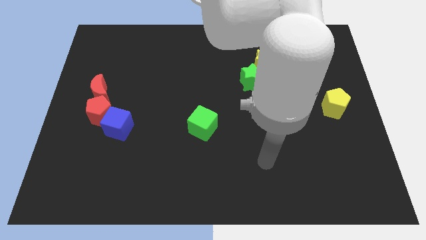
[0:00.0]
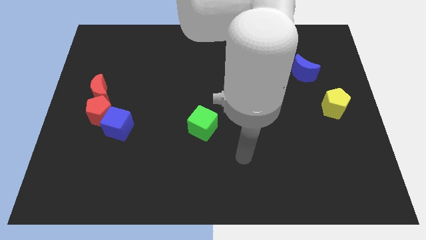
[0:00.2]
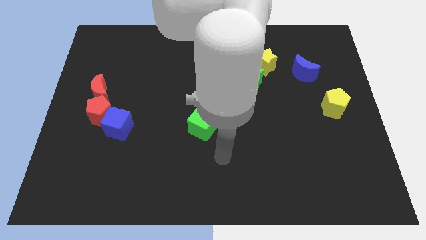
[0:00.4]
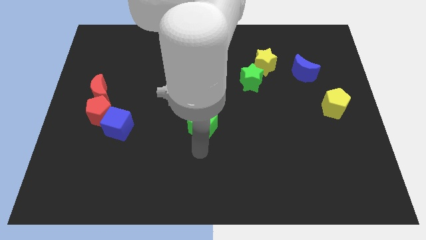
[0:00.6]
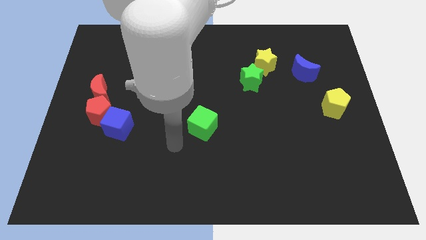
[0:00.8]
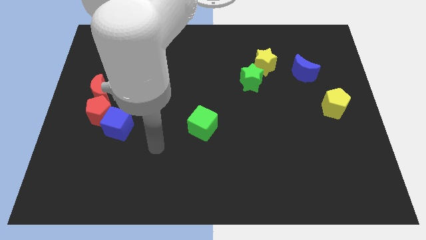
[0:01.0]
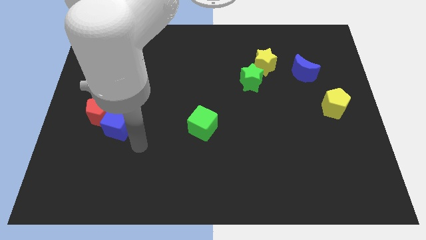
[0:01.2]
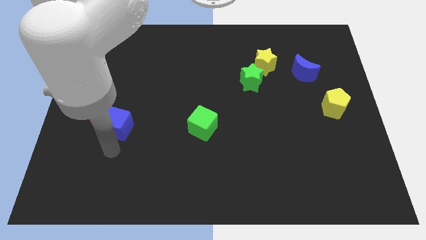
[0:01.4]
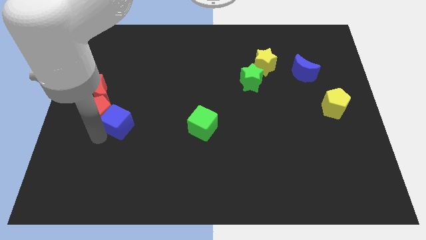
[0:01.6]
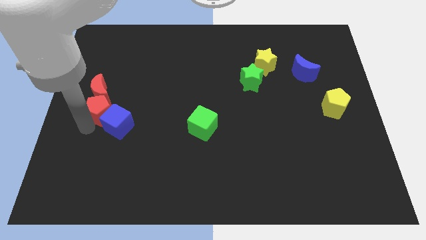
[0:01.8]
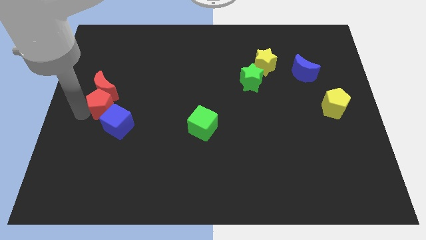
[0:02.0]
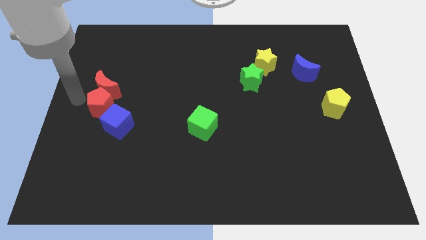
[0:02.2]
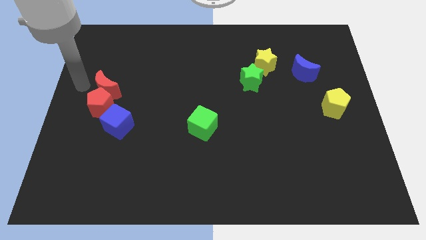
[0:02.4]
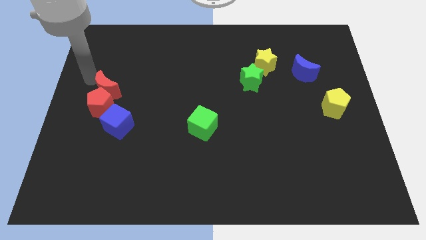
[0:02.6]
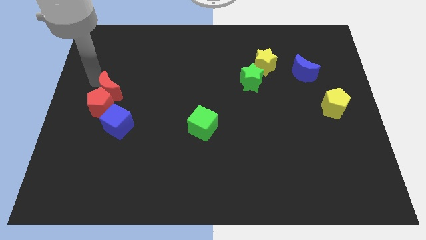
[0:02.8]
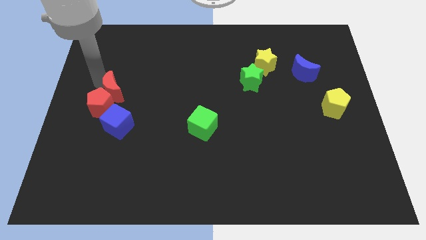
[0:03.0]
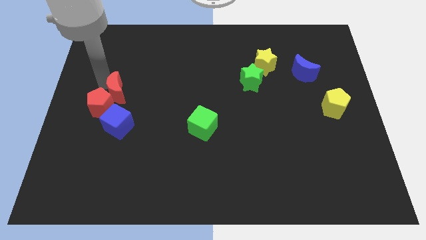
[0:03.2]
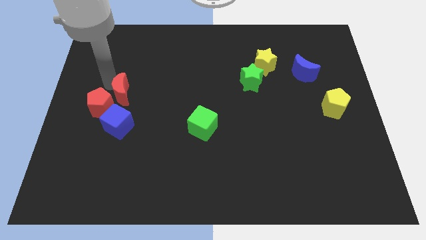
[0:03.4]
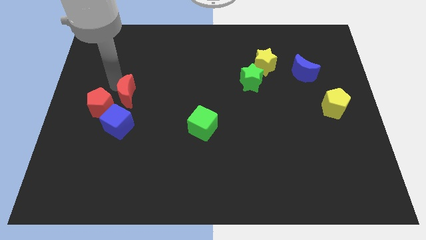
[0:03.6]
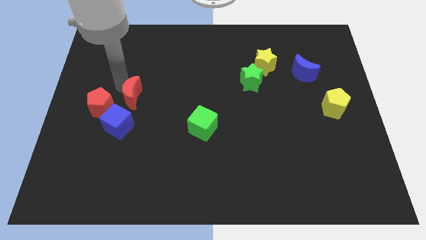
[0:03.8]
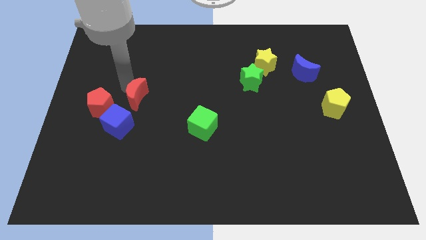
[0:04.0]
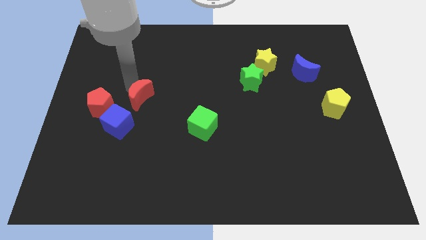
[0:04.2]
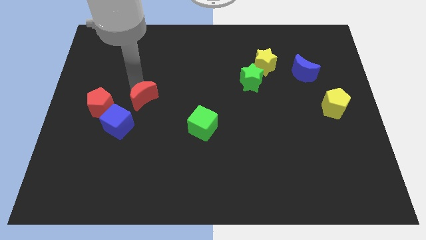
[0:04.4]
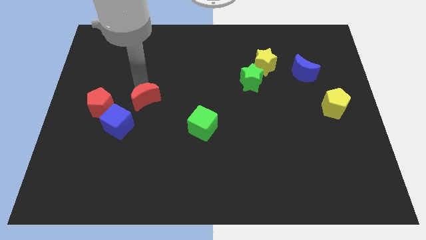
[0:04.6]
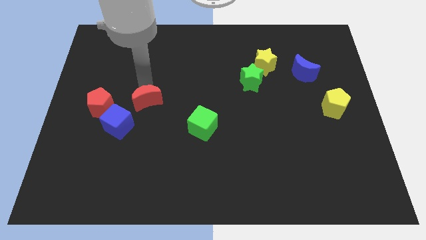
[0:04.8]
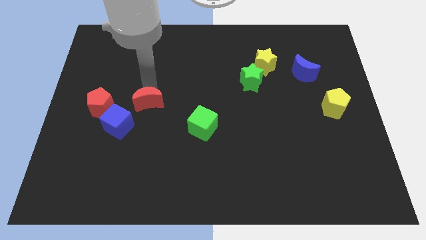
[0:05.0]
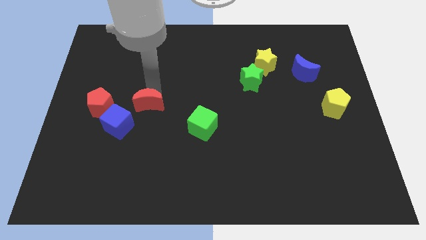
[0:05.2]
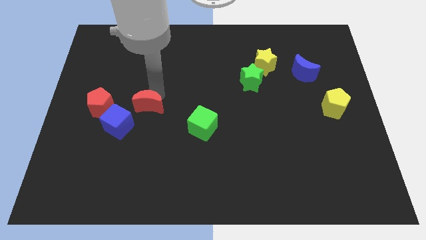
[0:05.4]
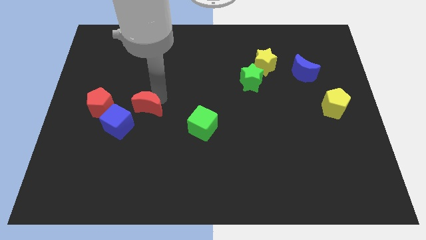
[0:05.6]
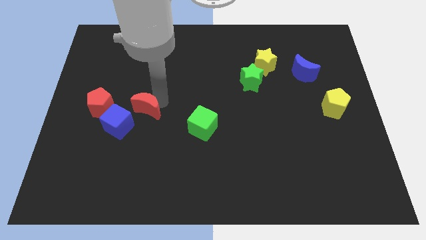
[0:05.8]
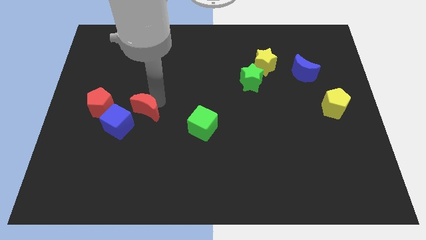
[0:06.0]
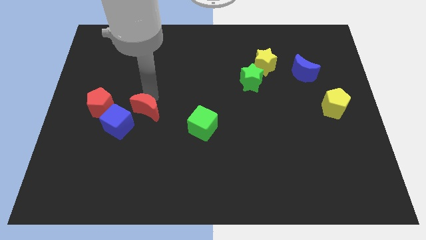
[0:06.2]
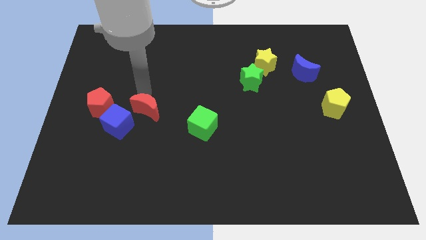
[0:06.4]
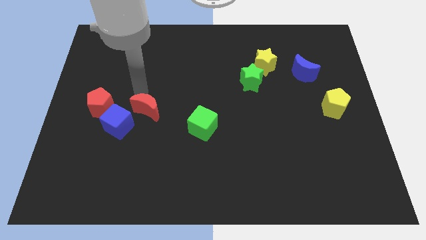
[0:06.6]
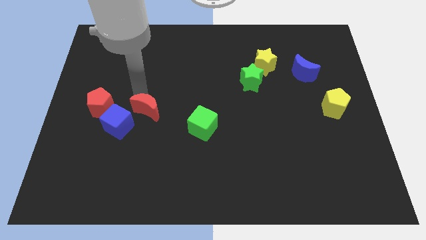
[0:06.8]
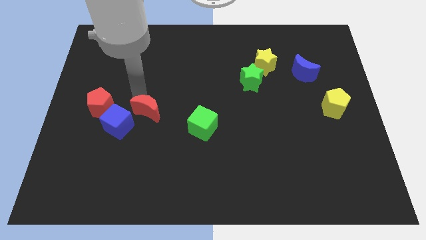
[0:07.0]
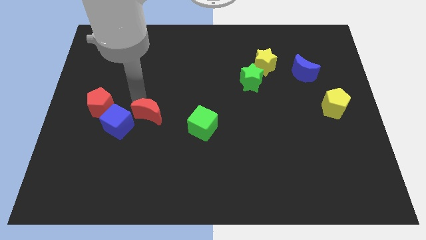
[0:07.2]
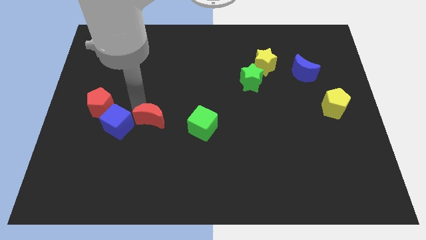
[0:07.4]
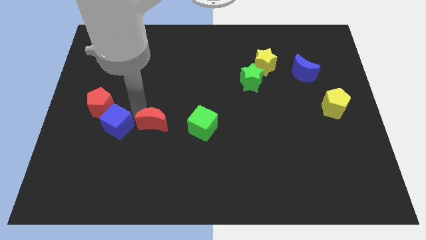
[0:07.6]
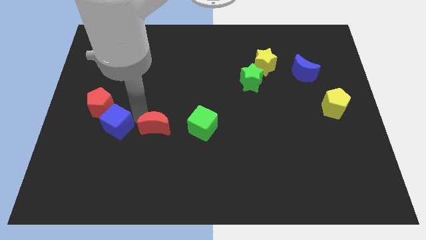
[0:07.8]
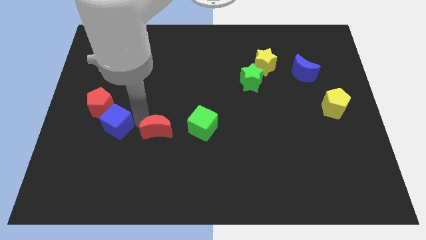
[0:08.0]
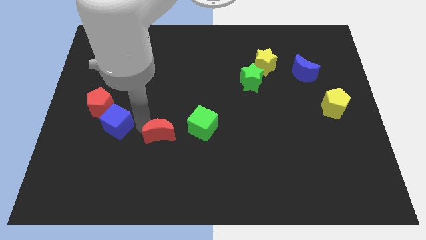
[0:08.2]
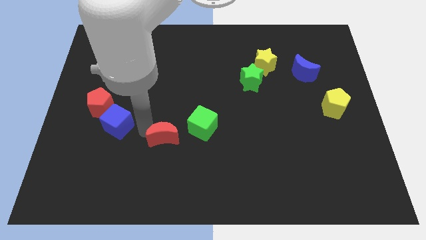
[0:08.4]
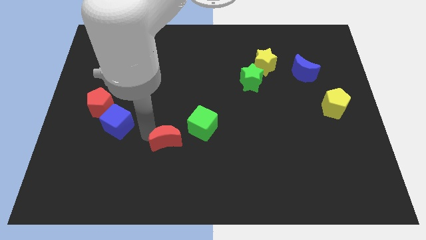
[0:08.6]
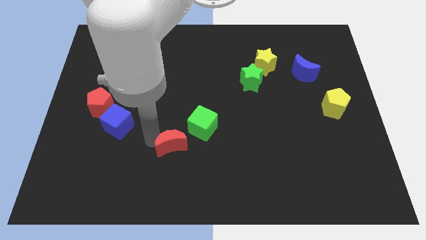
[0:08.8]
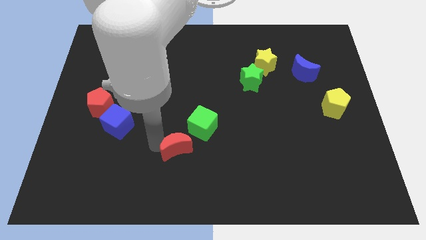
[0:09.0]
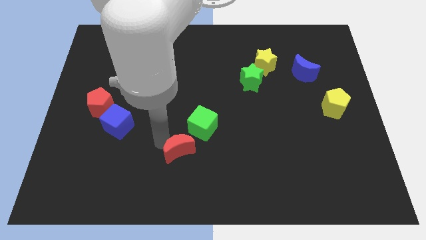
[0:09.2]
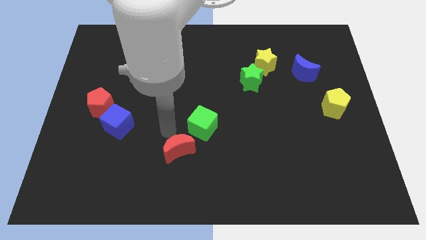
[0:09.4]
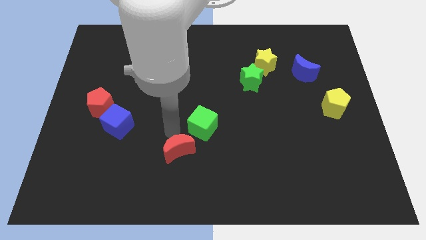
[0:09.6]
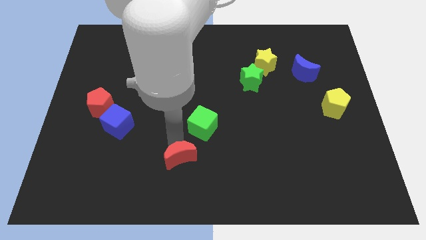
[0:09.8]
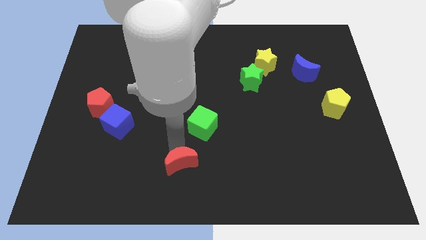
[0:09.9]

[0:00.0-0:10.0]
slide the red moon to the bottom

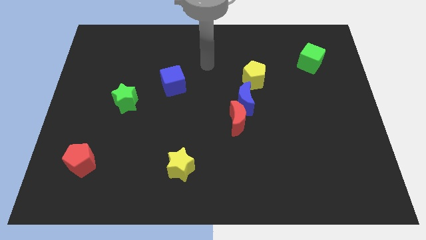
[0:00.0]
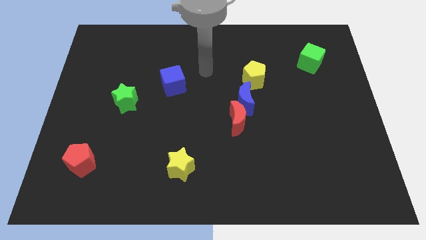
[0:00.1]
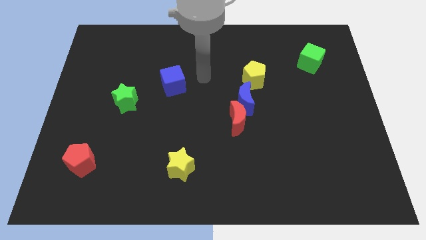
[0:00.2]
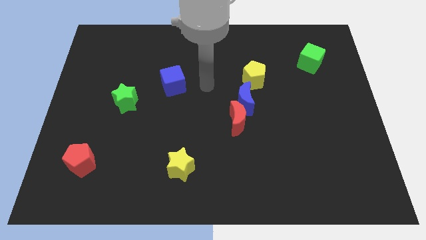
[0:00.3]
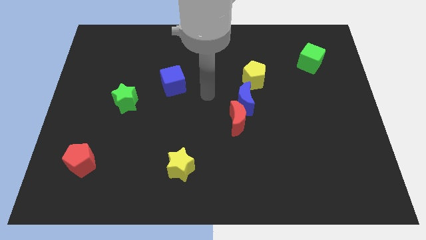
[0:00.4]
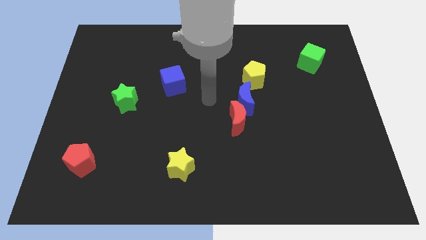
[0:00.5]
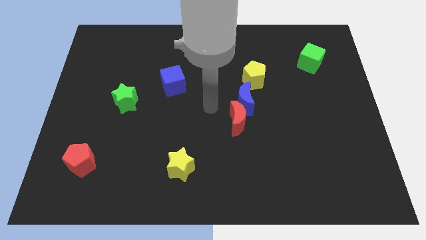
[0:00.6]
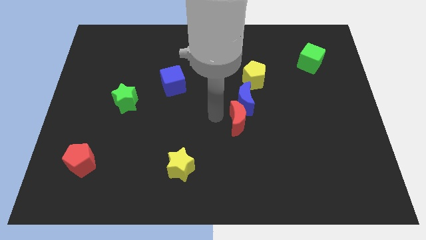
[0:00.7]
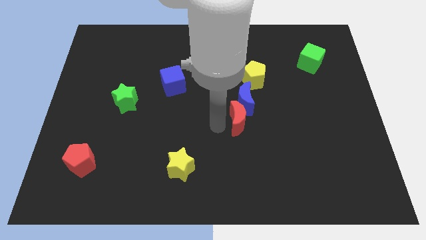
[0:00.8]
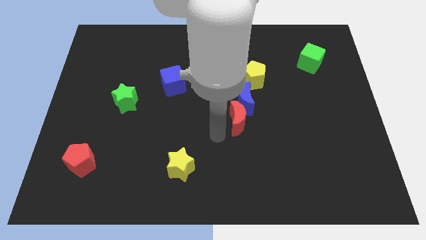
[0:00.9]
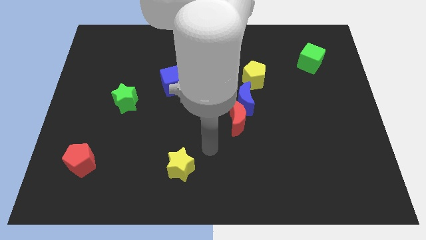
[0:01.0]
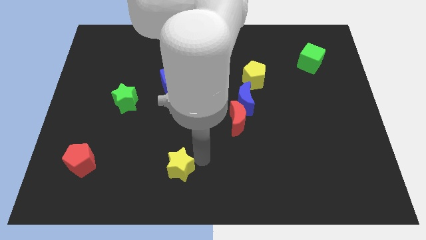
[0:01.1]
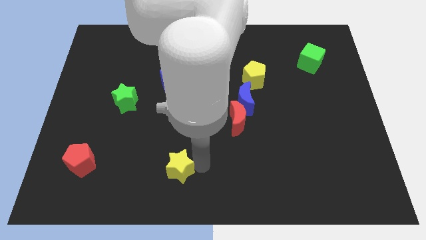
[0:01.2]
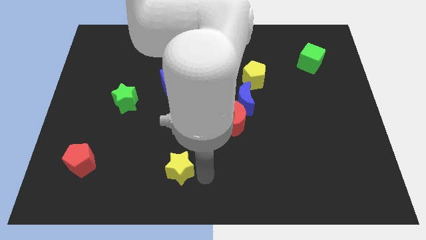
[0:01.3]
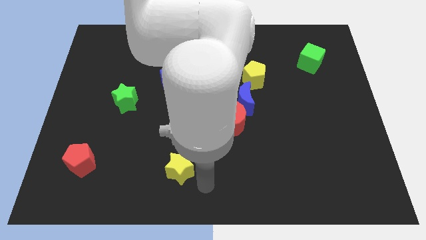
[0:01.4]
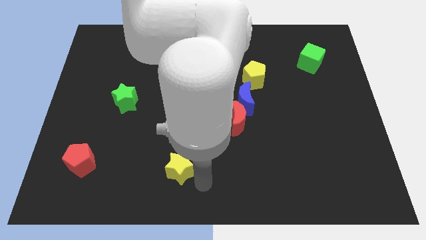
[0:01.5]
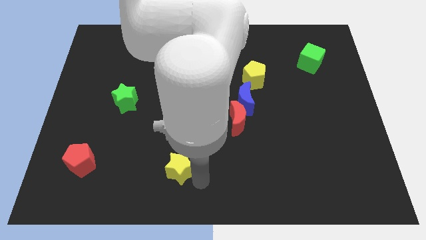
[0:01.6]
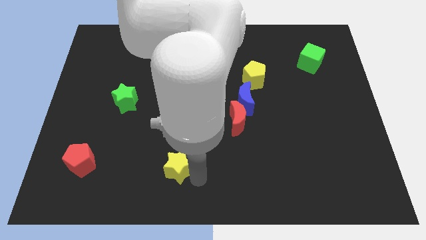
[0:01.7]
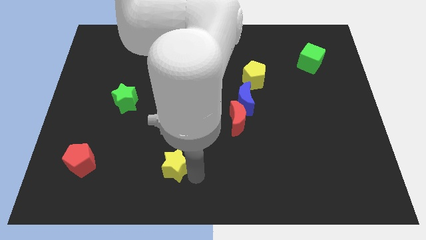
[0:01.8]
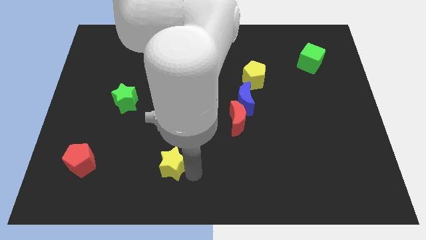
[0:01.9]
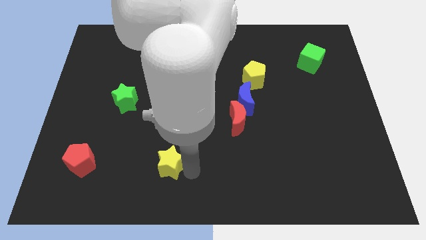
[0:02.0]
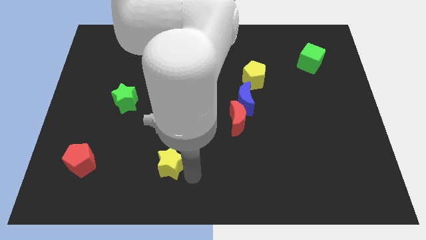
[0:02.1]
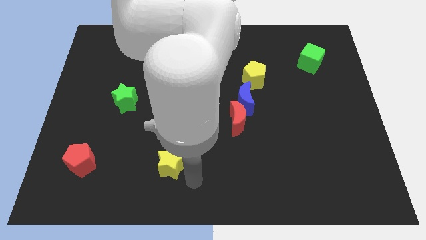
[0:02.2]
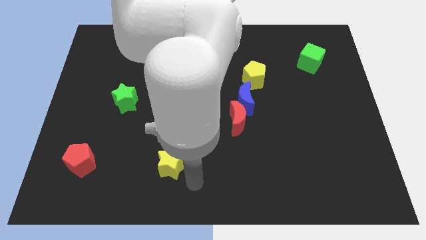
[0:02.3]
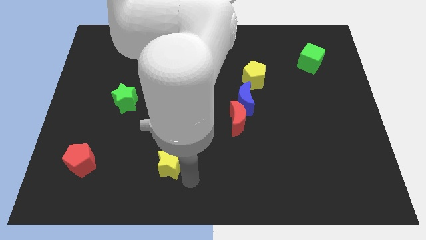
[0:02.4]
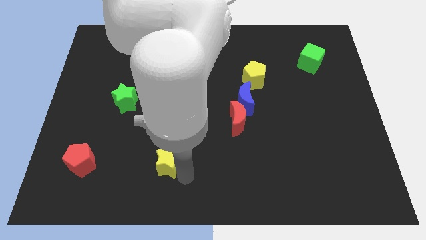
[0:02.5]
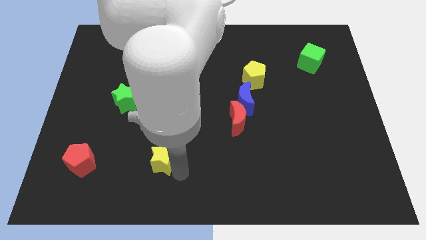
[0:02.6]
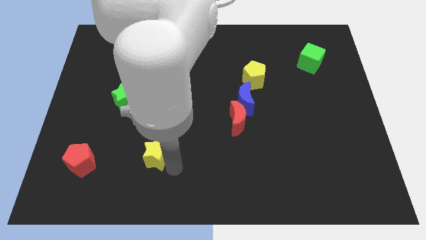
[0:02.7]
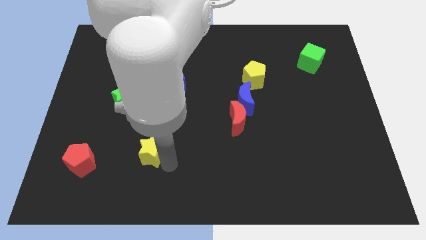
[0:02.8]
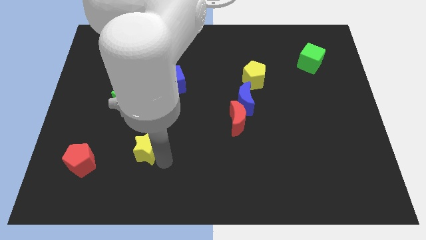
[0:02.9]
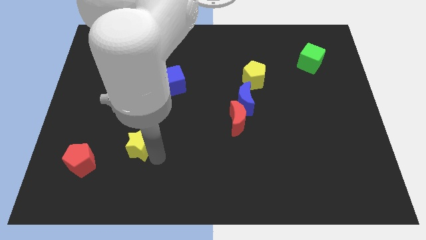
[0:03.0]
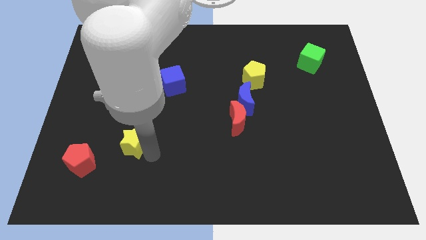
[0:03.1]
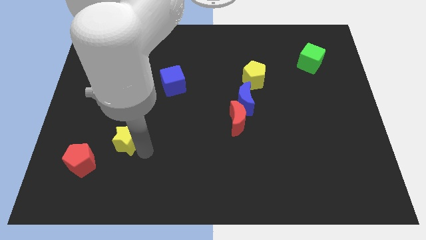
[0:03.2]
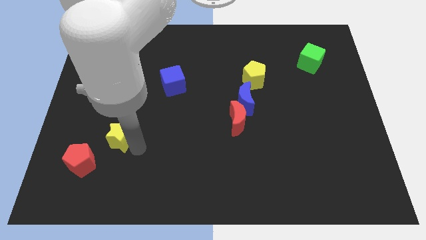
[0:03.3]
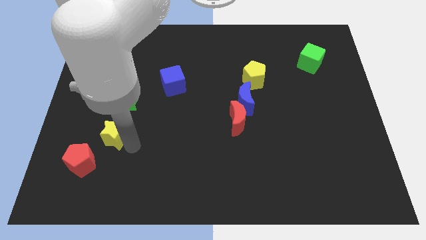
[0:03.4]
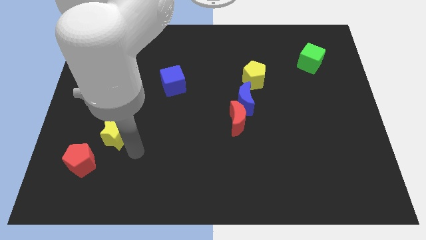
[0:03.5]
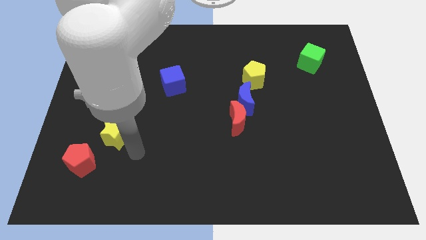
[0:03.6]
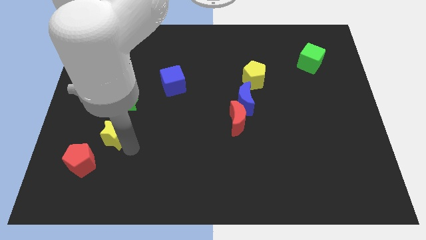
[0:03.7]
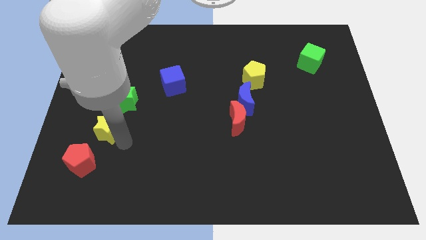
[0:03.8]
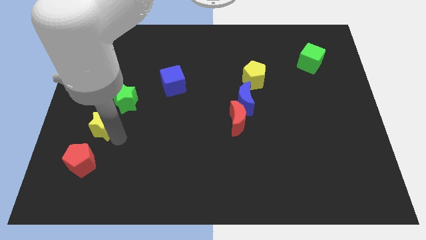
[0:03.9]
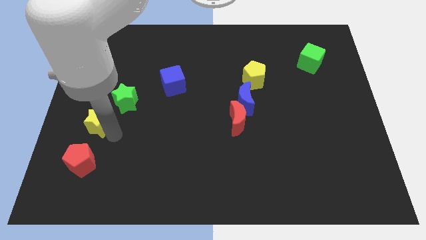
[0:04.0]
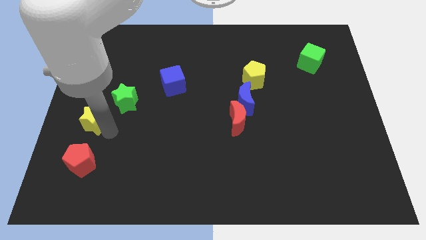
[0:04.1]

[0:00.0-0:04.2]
slide the yellow star to the center left
